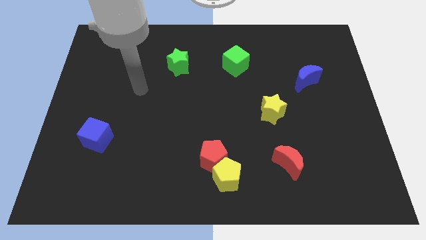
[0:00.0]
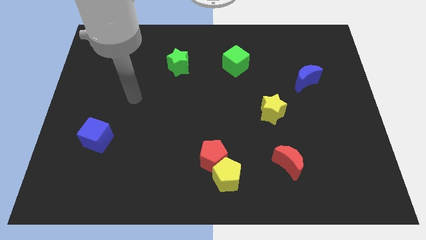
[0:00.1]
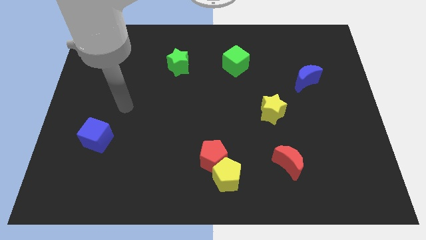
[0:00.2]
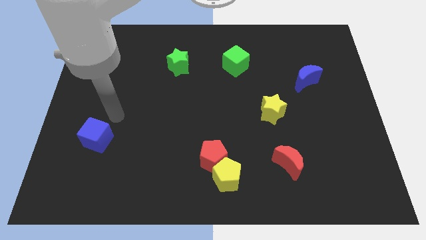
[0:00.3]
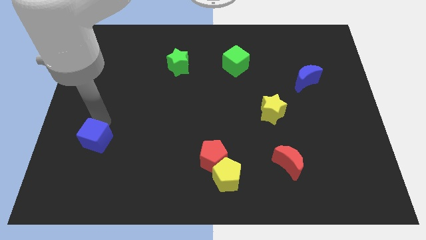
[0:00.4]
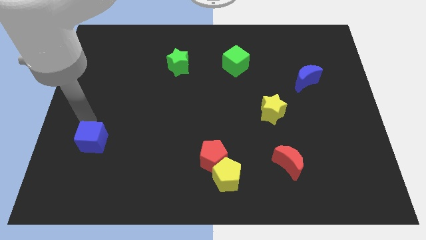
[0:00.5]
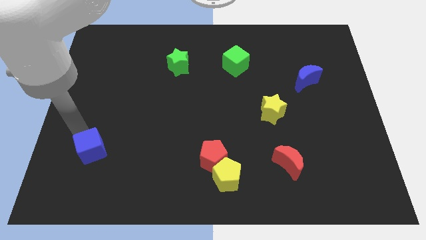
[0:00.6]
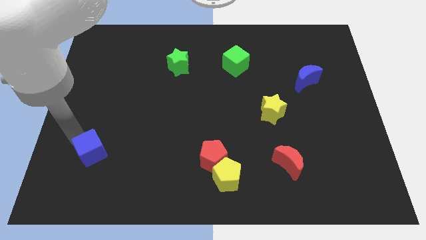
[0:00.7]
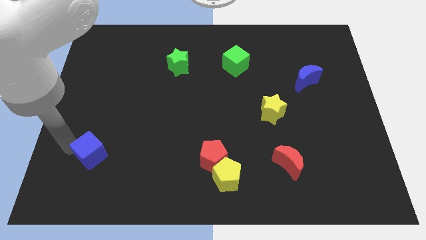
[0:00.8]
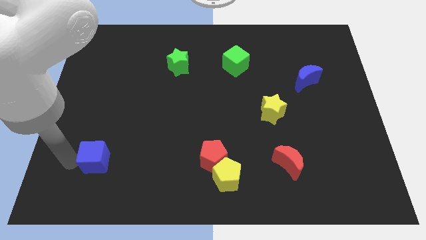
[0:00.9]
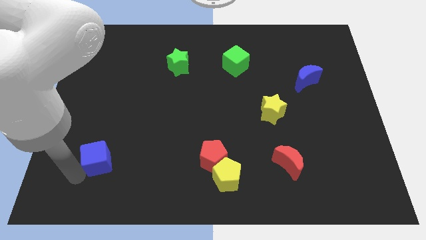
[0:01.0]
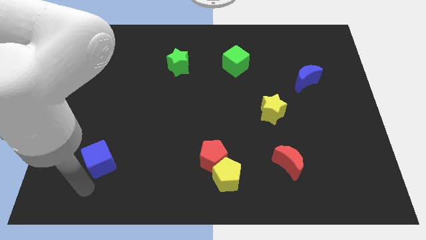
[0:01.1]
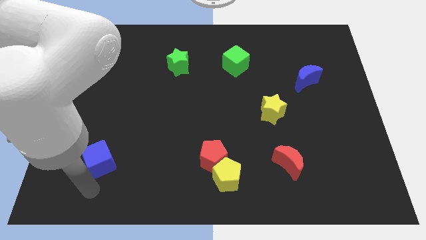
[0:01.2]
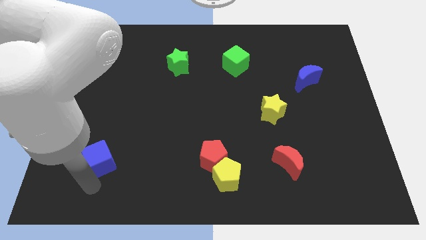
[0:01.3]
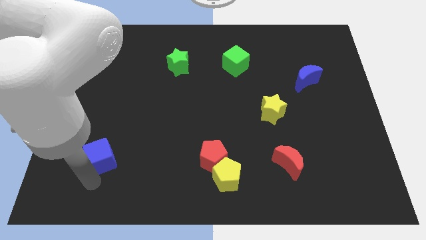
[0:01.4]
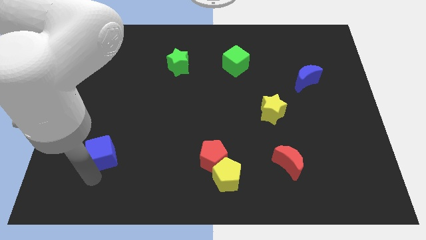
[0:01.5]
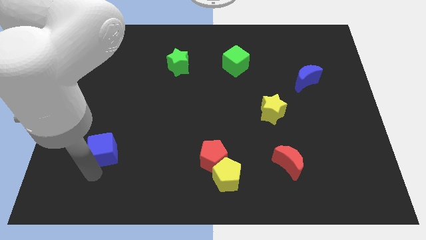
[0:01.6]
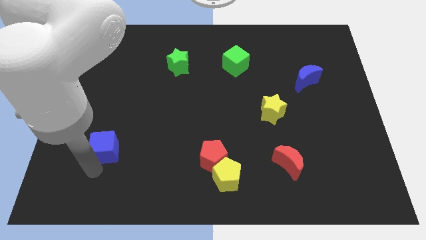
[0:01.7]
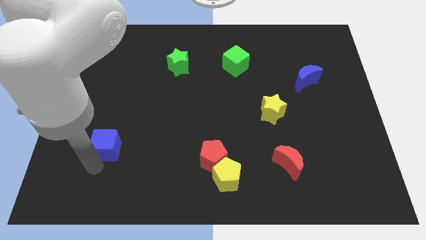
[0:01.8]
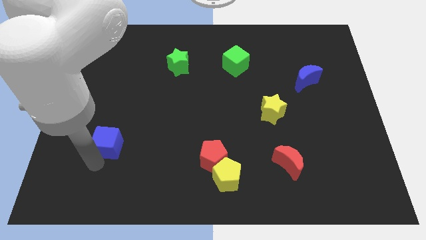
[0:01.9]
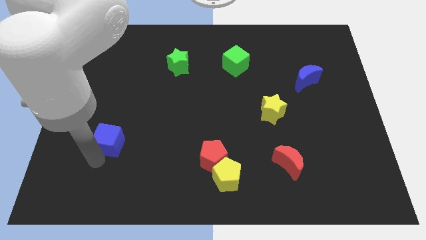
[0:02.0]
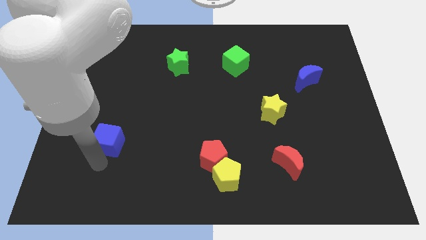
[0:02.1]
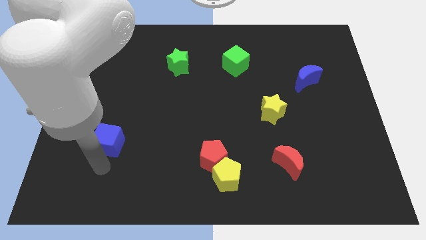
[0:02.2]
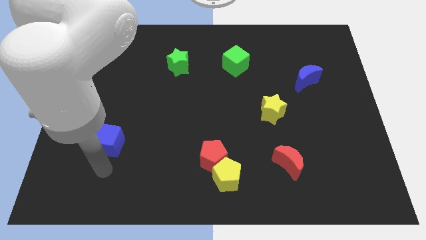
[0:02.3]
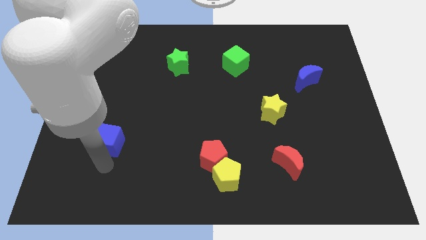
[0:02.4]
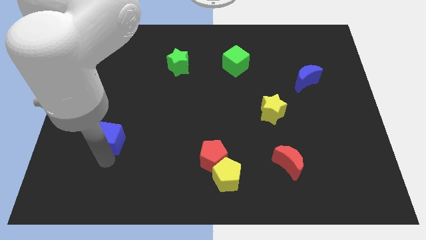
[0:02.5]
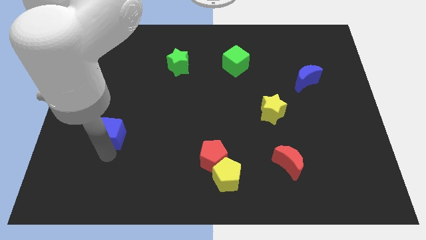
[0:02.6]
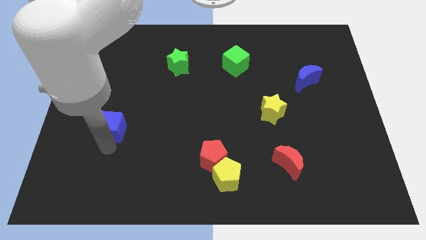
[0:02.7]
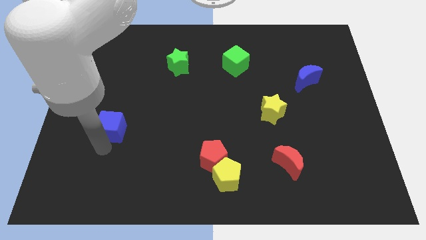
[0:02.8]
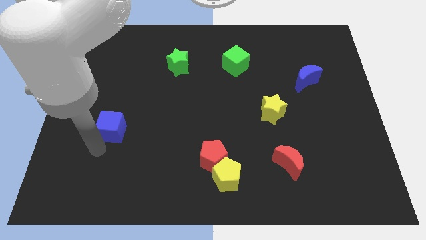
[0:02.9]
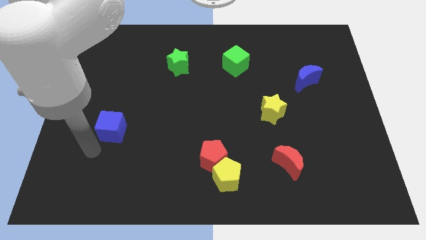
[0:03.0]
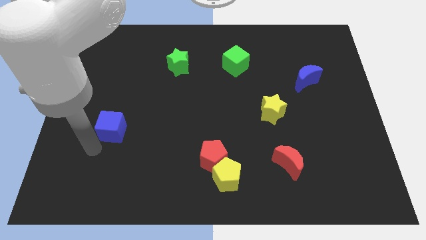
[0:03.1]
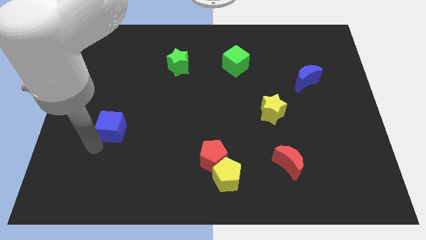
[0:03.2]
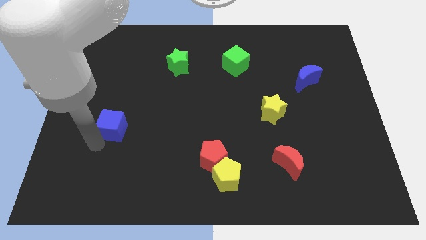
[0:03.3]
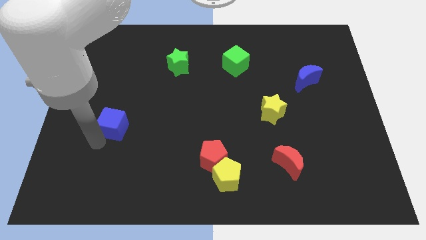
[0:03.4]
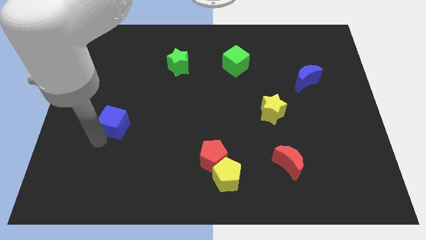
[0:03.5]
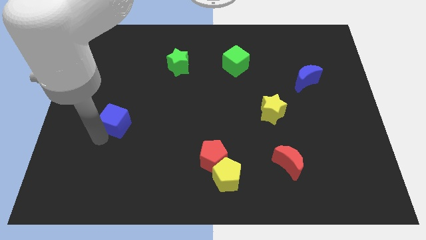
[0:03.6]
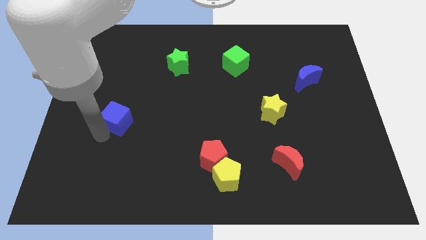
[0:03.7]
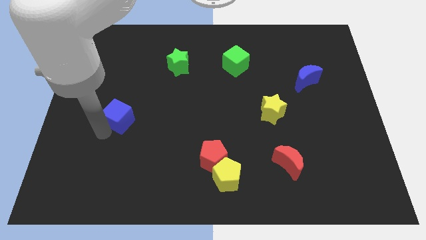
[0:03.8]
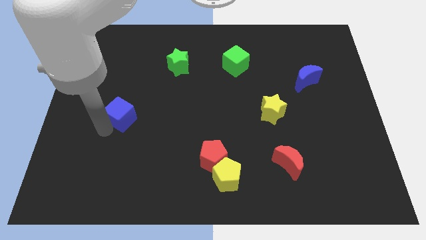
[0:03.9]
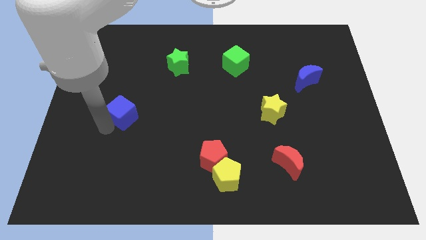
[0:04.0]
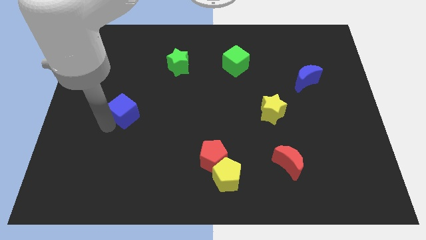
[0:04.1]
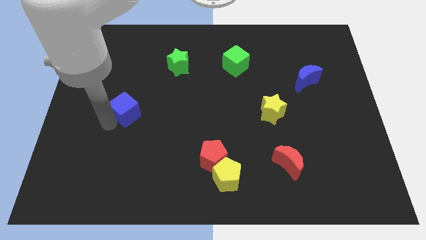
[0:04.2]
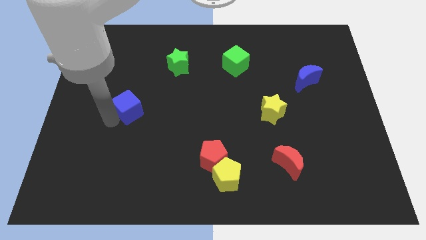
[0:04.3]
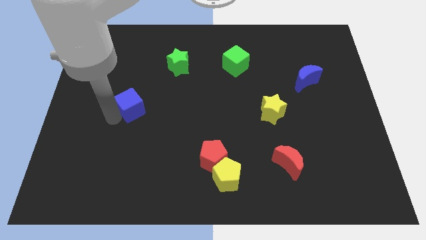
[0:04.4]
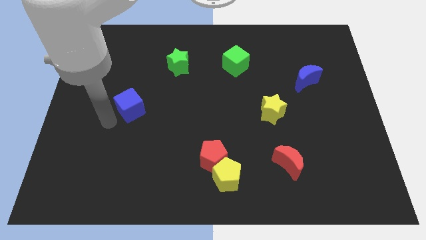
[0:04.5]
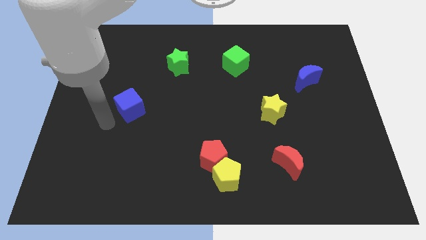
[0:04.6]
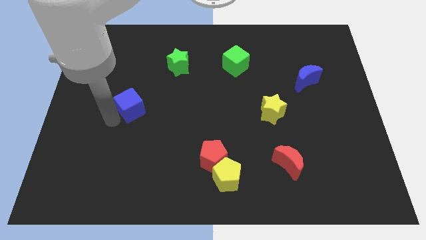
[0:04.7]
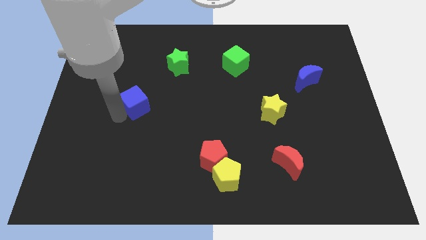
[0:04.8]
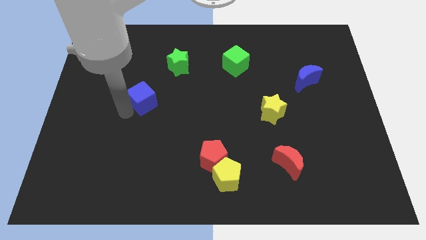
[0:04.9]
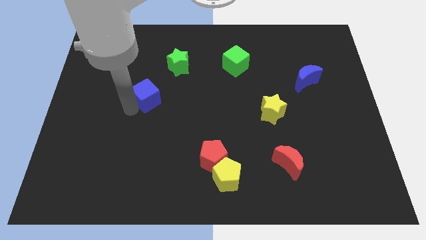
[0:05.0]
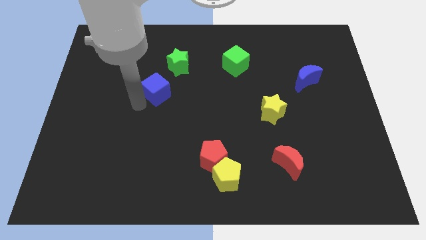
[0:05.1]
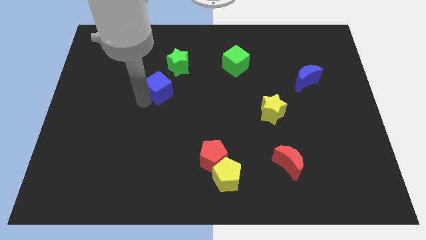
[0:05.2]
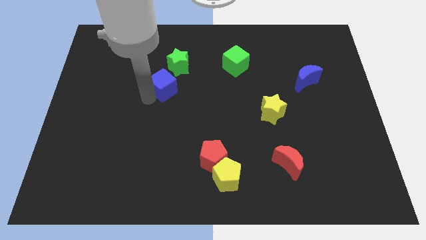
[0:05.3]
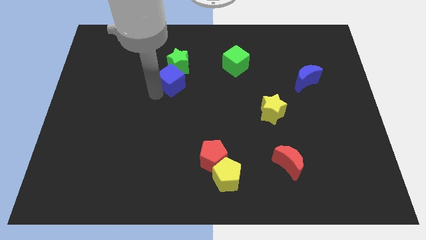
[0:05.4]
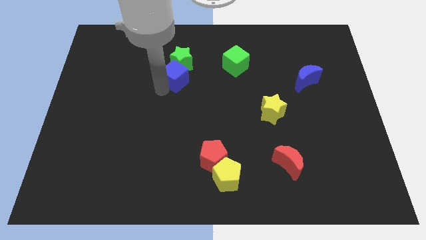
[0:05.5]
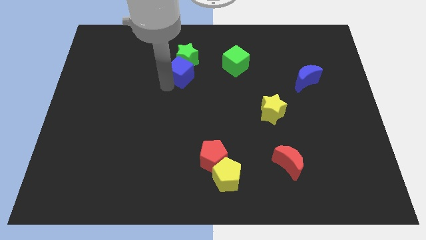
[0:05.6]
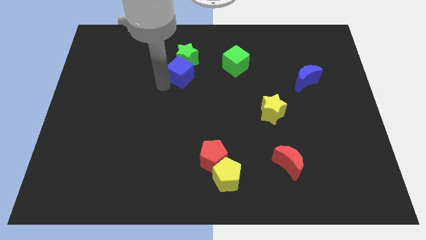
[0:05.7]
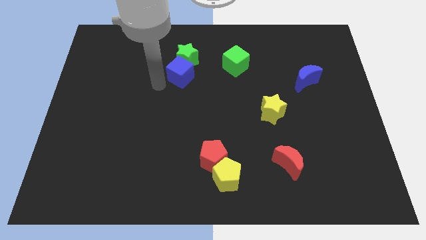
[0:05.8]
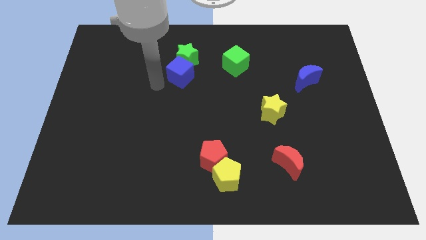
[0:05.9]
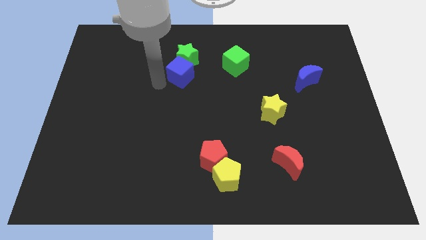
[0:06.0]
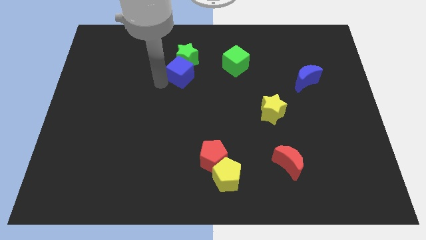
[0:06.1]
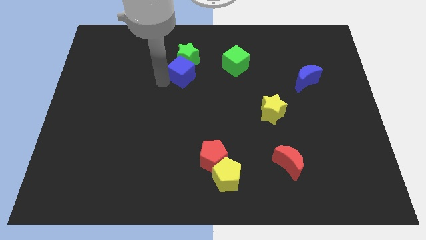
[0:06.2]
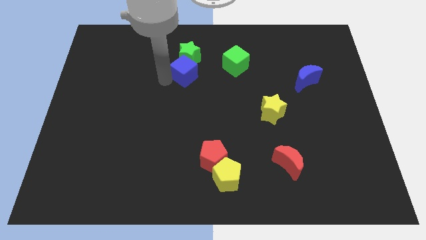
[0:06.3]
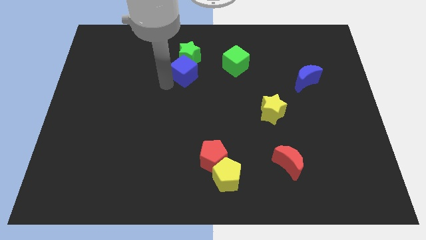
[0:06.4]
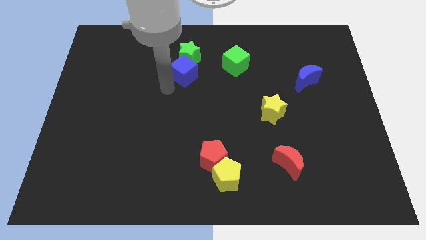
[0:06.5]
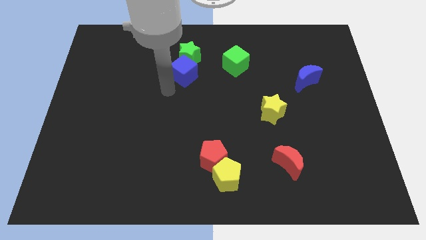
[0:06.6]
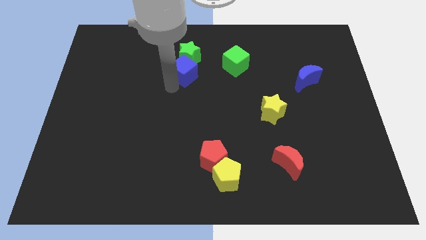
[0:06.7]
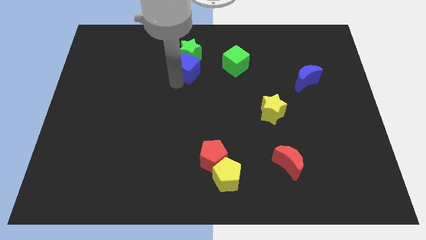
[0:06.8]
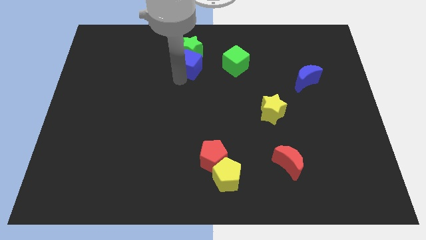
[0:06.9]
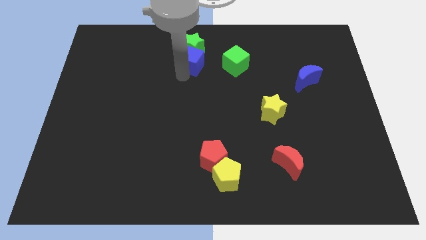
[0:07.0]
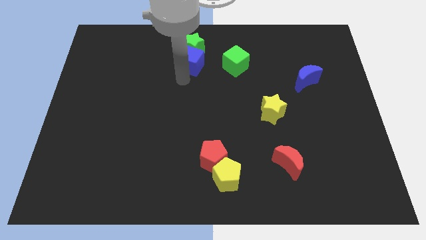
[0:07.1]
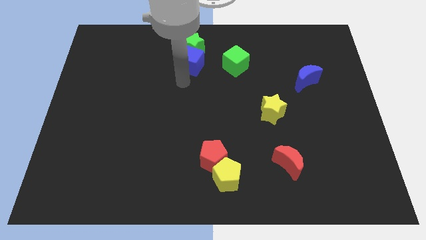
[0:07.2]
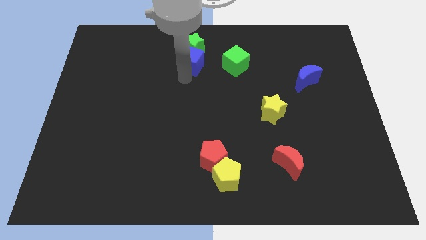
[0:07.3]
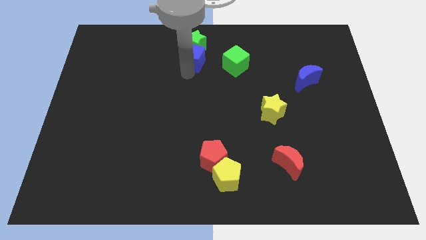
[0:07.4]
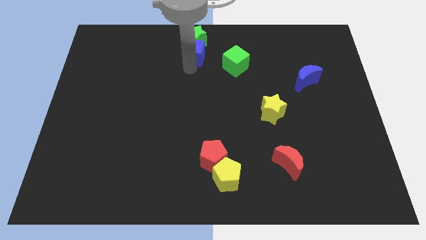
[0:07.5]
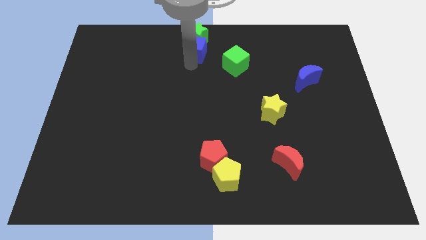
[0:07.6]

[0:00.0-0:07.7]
slide the blue cube to the top
